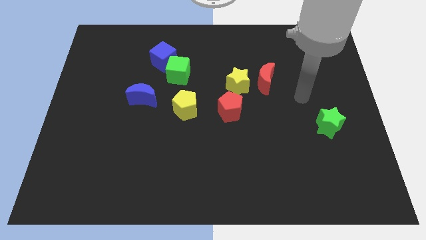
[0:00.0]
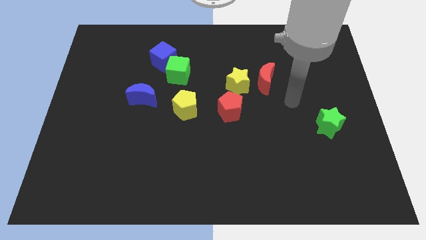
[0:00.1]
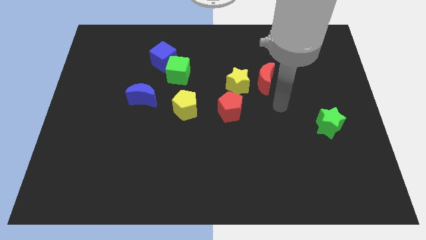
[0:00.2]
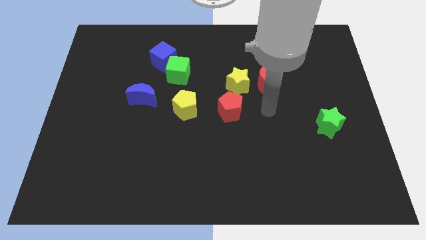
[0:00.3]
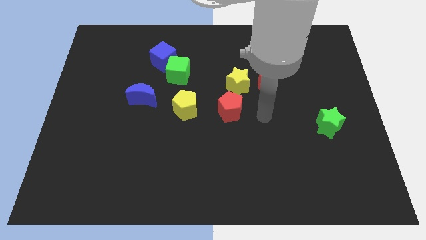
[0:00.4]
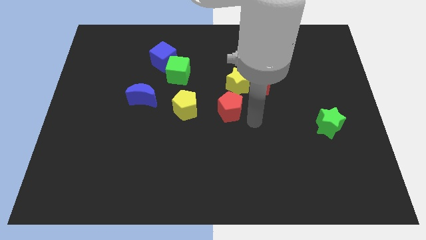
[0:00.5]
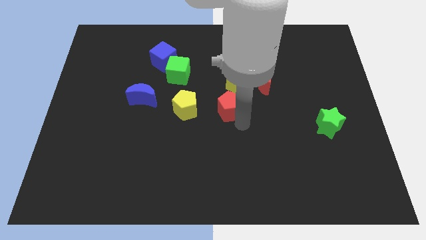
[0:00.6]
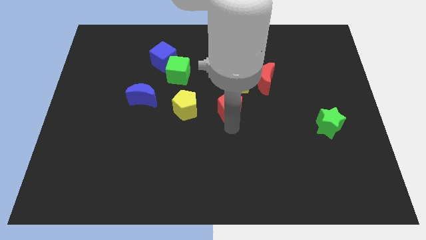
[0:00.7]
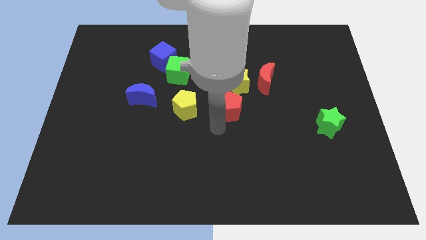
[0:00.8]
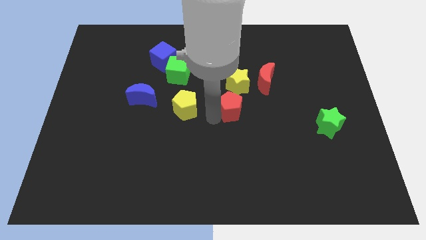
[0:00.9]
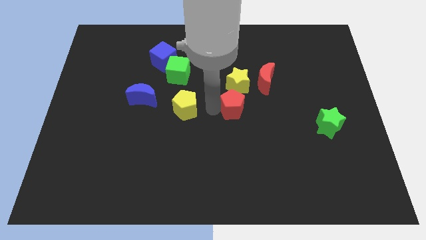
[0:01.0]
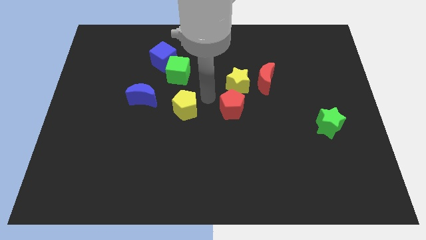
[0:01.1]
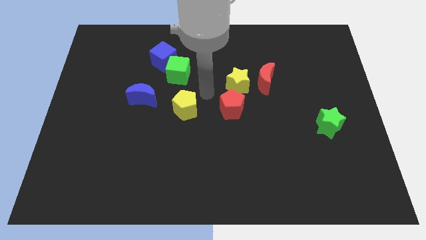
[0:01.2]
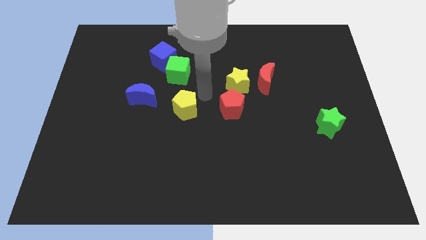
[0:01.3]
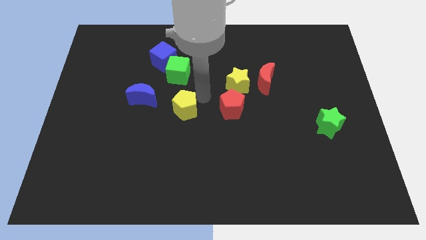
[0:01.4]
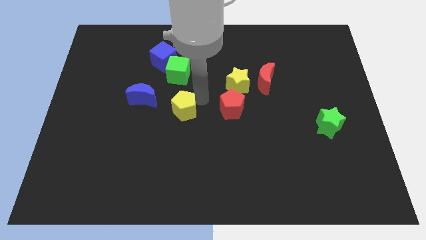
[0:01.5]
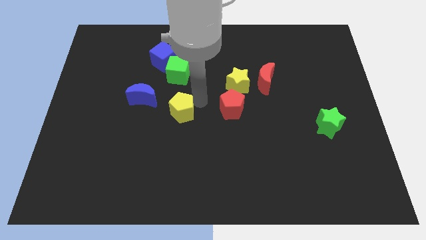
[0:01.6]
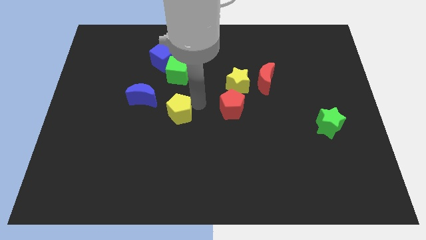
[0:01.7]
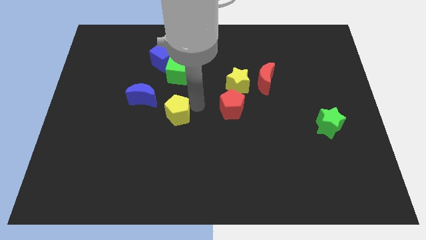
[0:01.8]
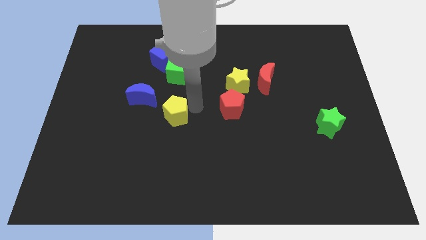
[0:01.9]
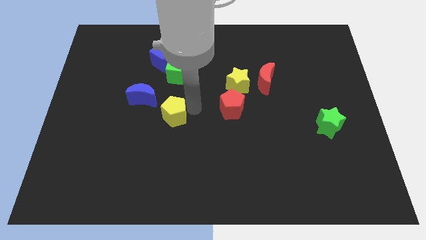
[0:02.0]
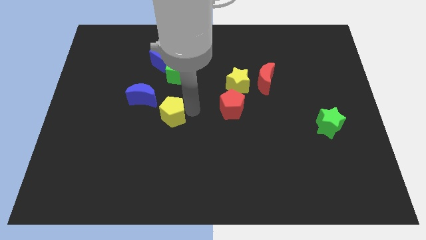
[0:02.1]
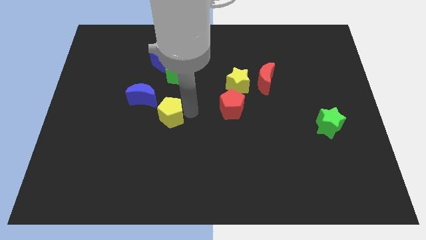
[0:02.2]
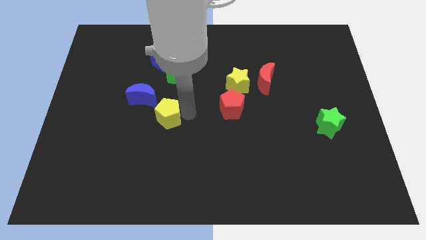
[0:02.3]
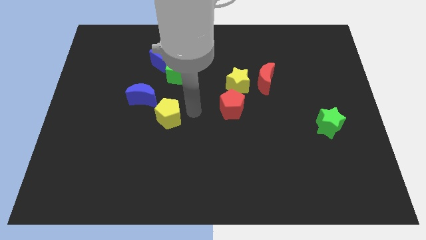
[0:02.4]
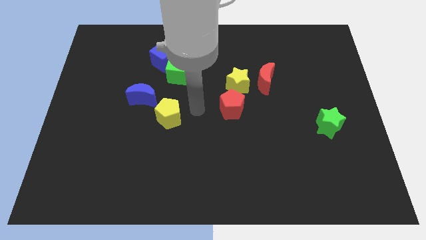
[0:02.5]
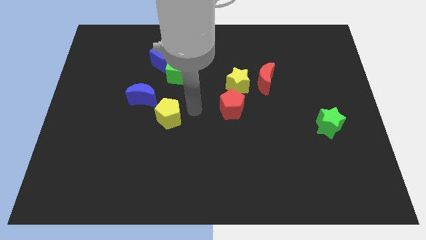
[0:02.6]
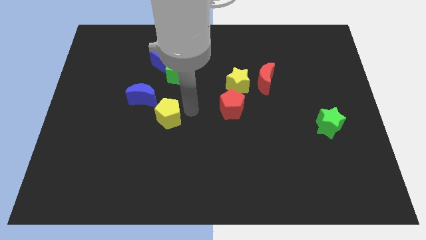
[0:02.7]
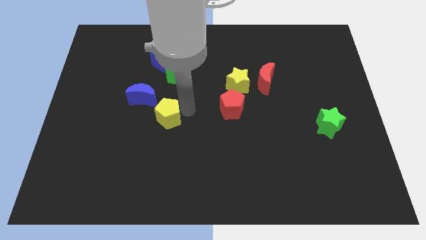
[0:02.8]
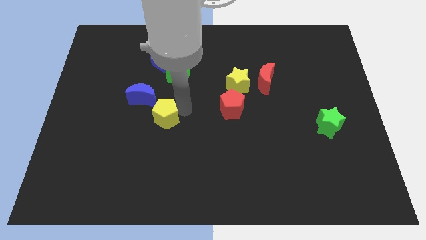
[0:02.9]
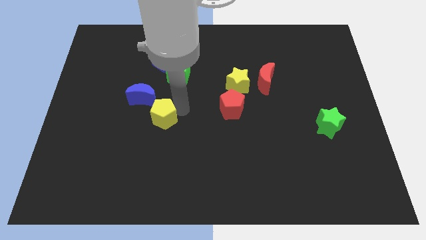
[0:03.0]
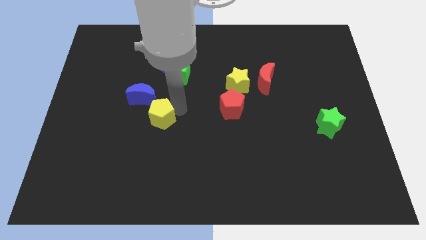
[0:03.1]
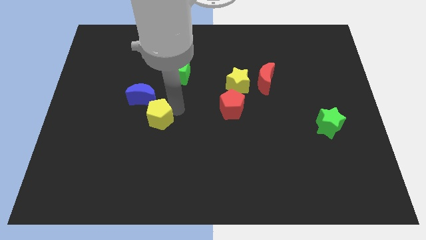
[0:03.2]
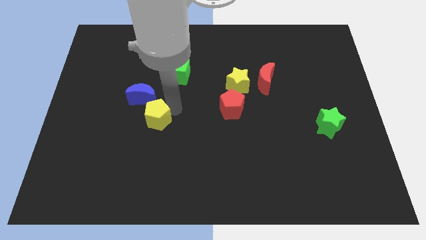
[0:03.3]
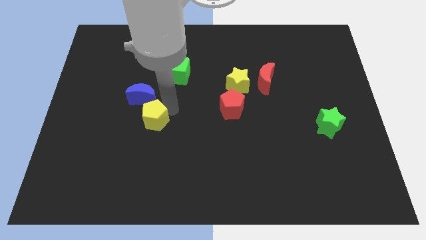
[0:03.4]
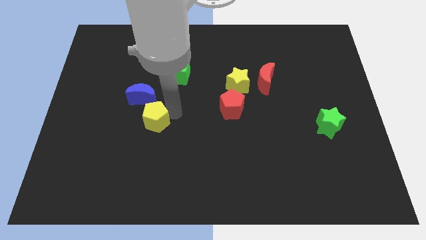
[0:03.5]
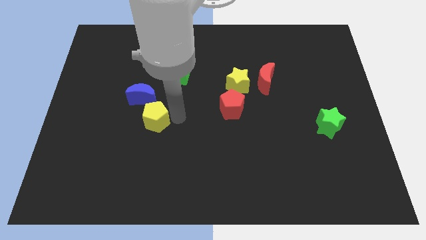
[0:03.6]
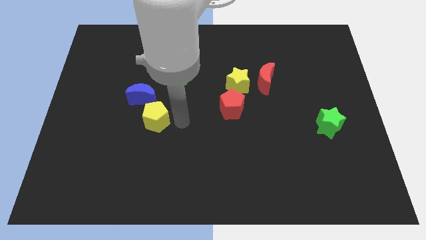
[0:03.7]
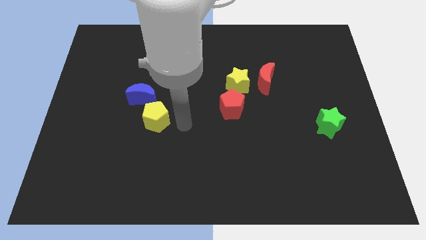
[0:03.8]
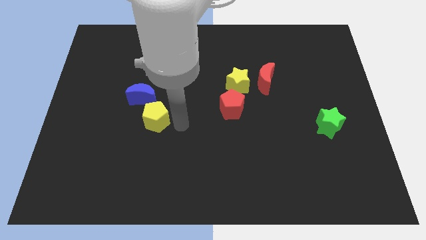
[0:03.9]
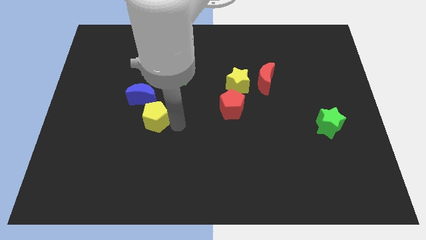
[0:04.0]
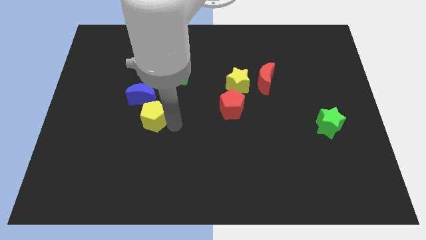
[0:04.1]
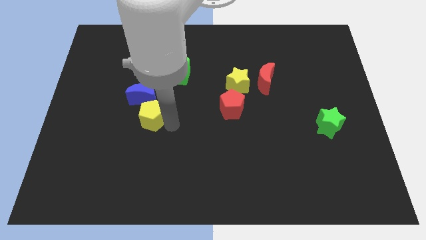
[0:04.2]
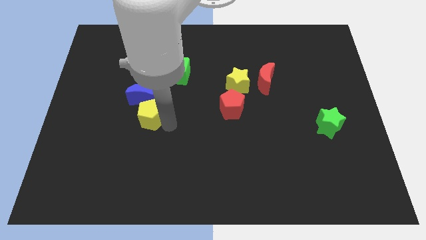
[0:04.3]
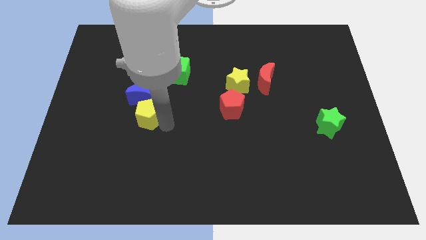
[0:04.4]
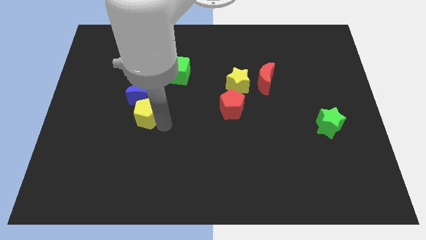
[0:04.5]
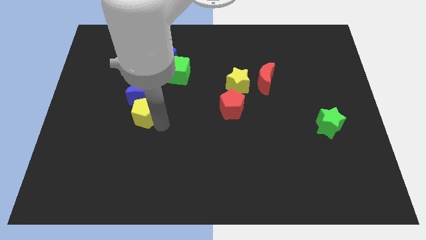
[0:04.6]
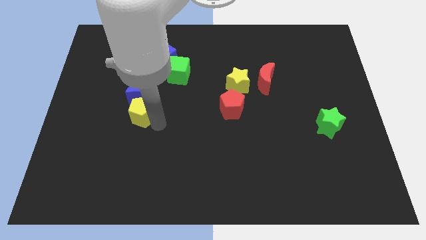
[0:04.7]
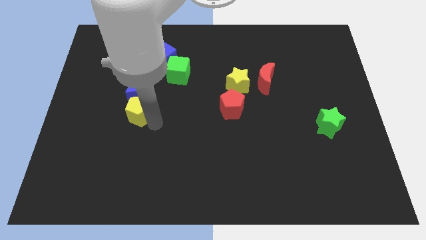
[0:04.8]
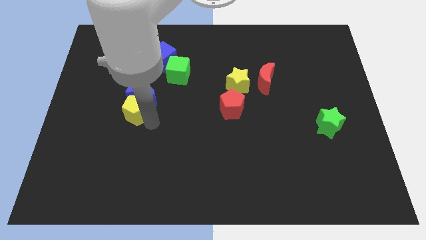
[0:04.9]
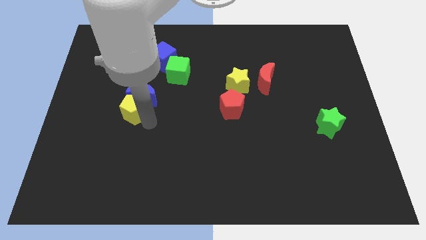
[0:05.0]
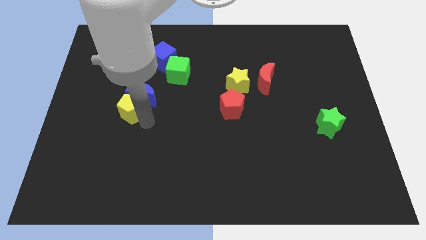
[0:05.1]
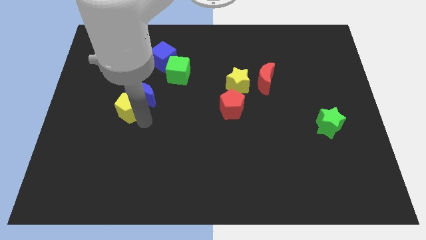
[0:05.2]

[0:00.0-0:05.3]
move the yellow pentagon just left of the blue moon

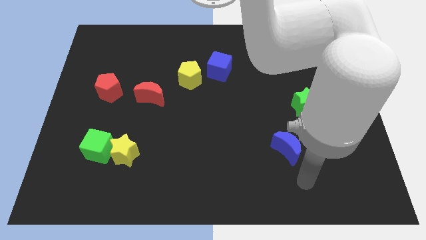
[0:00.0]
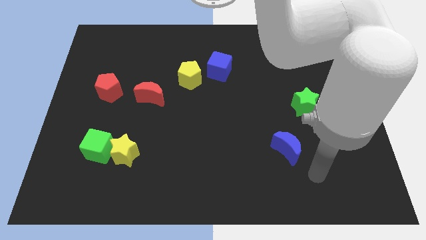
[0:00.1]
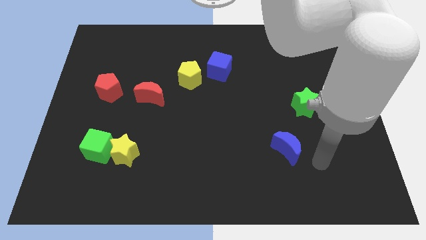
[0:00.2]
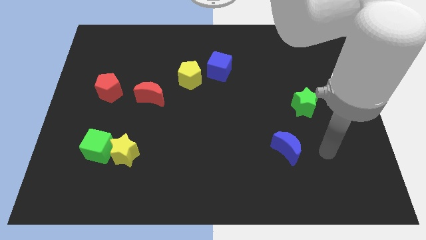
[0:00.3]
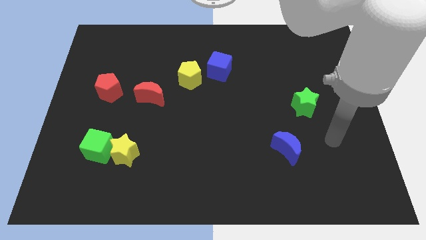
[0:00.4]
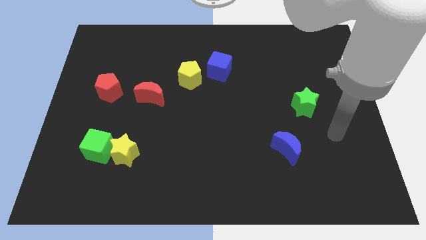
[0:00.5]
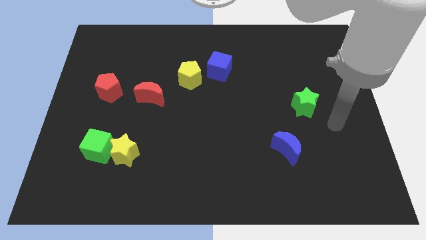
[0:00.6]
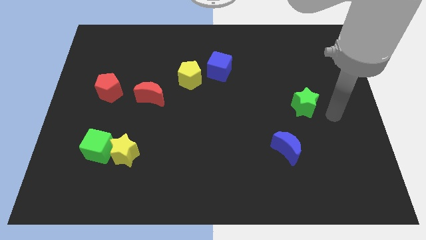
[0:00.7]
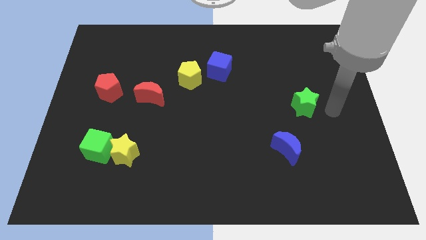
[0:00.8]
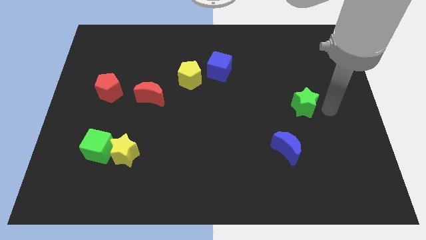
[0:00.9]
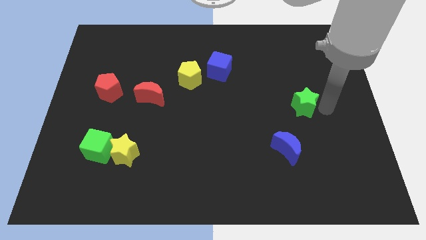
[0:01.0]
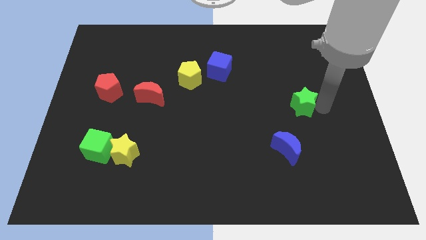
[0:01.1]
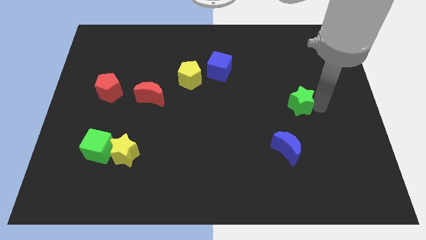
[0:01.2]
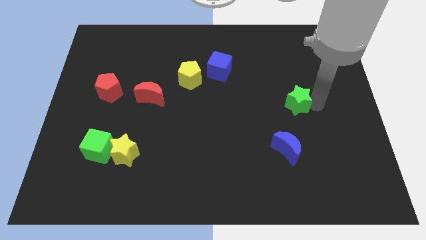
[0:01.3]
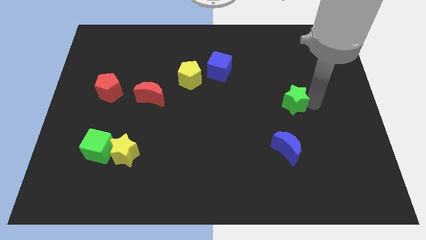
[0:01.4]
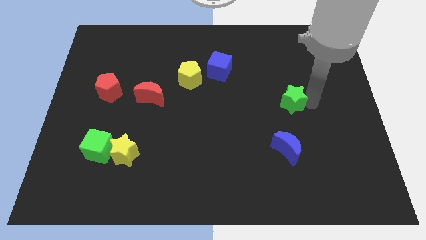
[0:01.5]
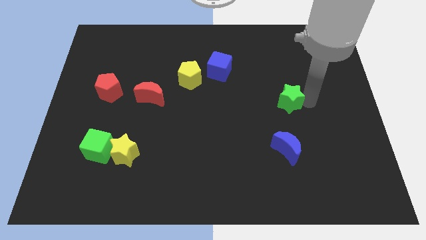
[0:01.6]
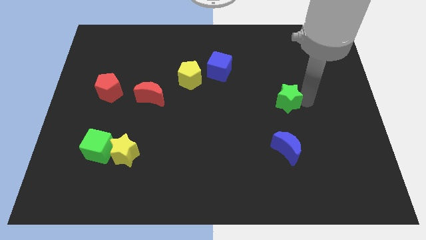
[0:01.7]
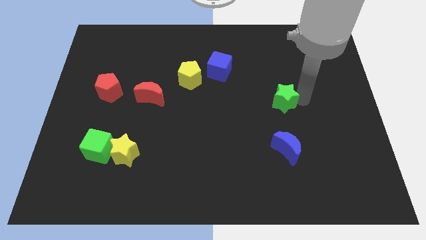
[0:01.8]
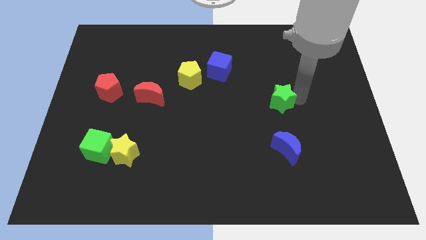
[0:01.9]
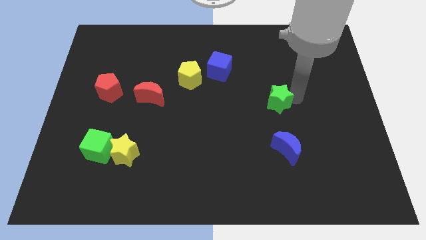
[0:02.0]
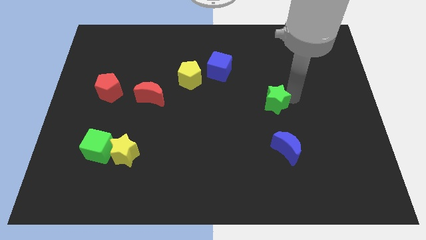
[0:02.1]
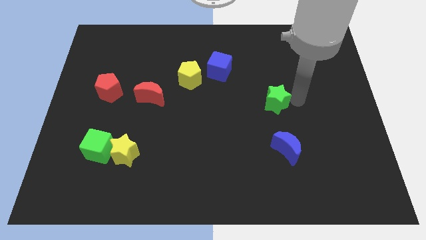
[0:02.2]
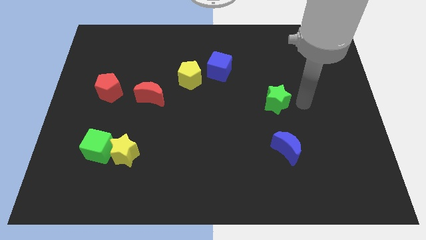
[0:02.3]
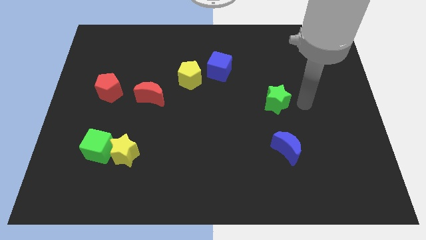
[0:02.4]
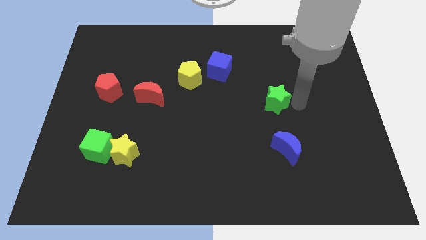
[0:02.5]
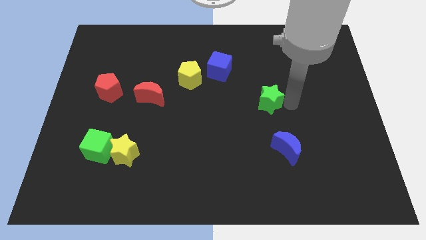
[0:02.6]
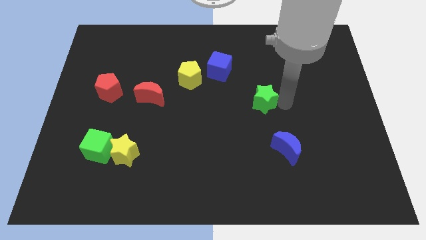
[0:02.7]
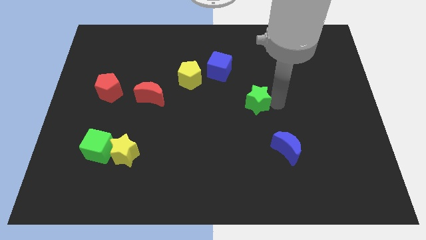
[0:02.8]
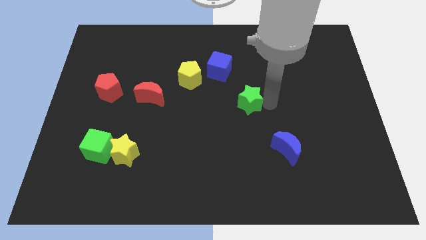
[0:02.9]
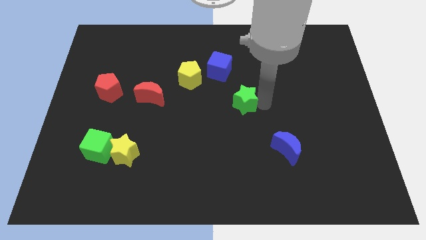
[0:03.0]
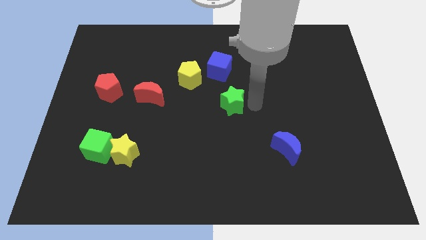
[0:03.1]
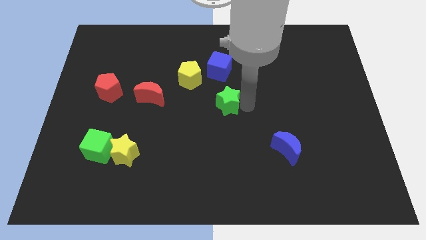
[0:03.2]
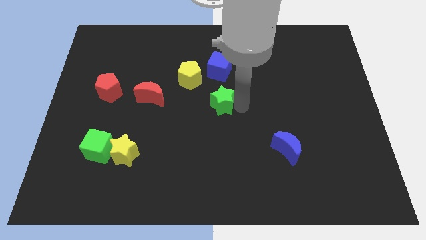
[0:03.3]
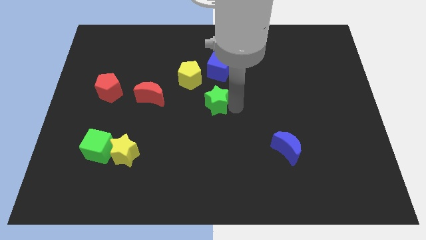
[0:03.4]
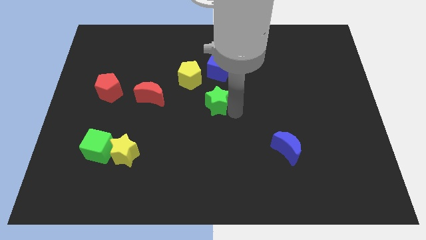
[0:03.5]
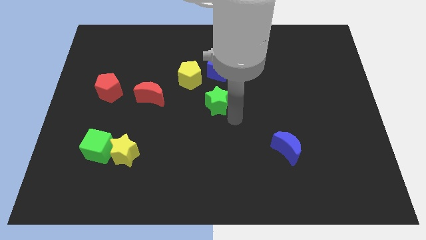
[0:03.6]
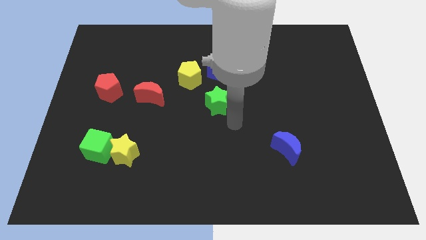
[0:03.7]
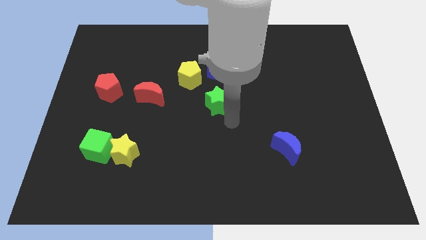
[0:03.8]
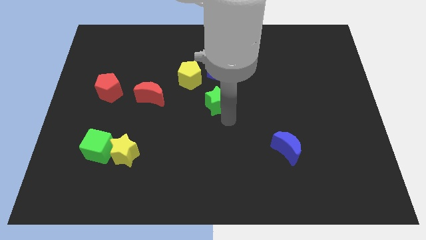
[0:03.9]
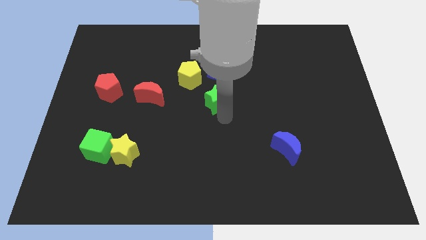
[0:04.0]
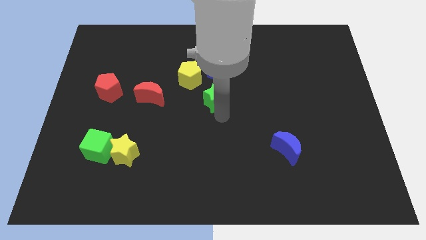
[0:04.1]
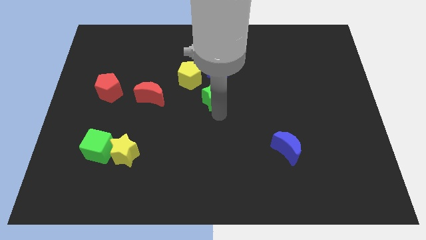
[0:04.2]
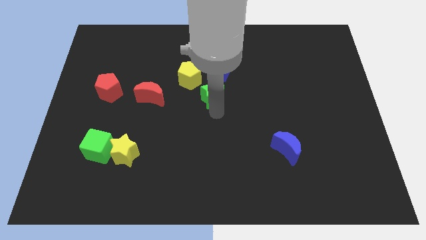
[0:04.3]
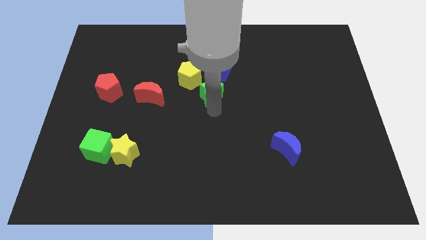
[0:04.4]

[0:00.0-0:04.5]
move the green star to the bottom left of the blue cube
